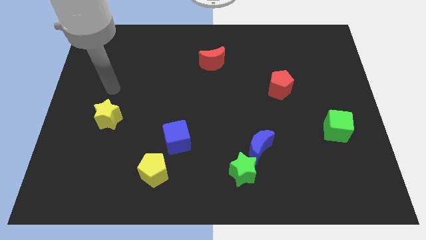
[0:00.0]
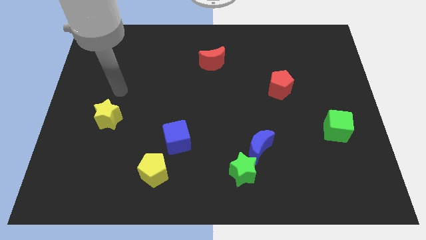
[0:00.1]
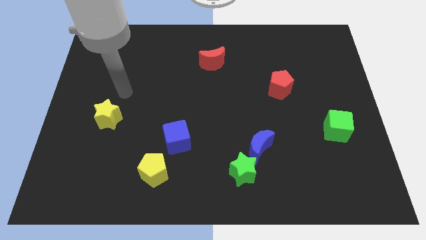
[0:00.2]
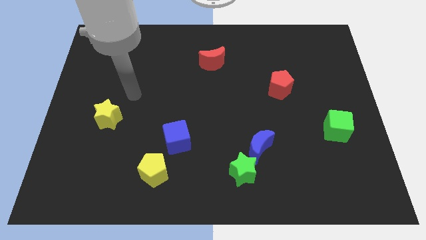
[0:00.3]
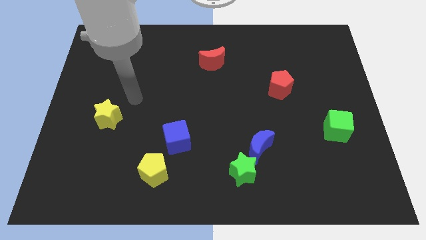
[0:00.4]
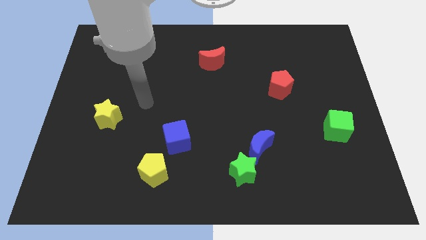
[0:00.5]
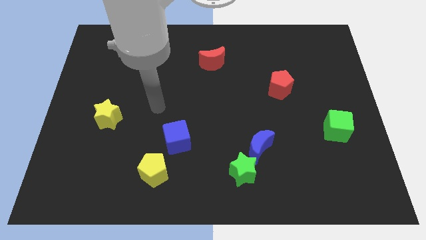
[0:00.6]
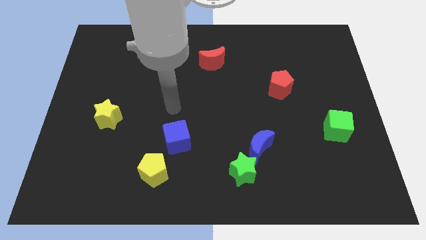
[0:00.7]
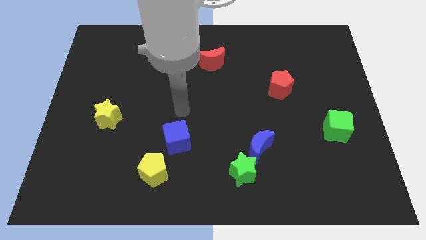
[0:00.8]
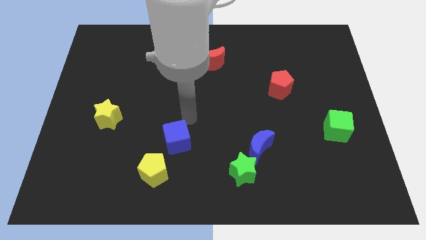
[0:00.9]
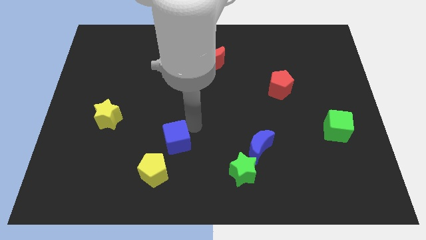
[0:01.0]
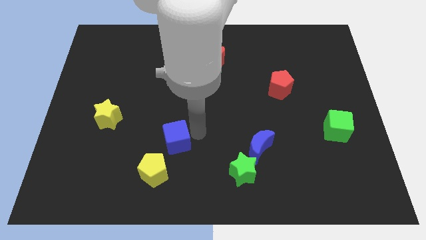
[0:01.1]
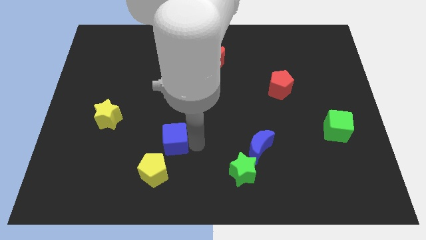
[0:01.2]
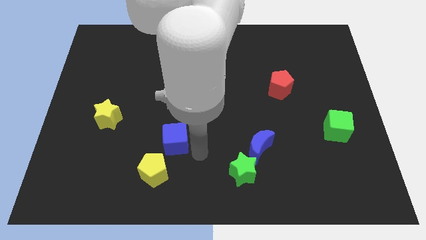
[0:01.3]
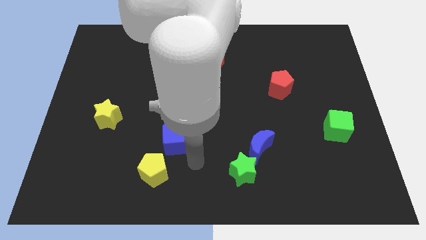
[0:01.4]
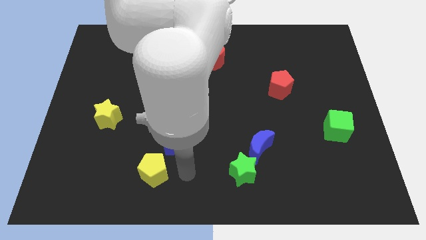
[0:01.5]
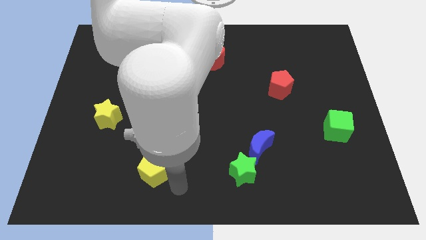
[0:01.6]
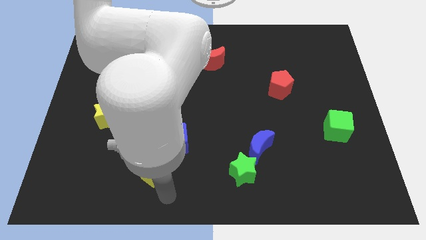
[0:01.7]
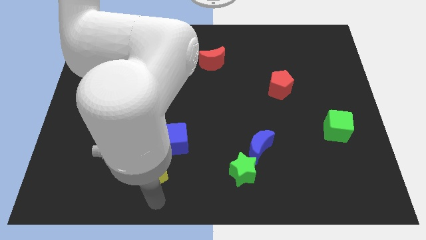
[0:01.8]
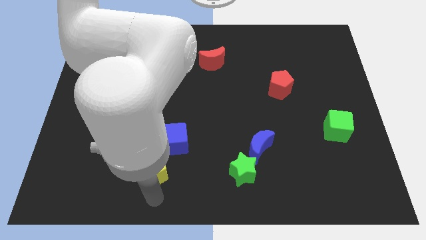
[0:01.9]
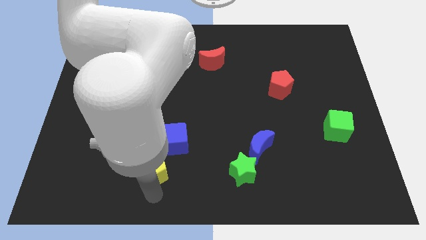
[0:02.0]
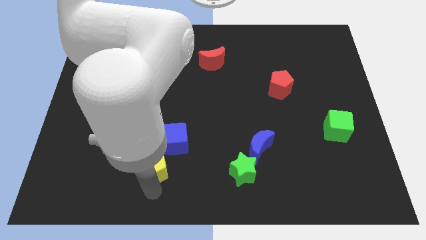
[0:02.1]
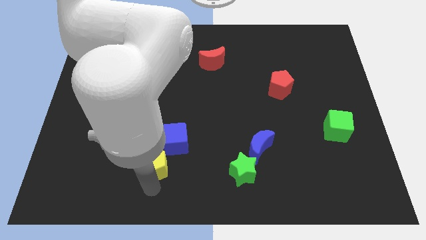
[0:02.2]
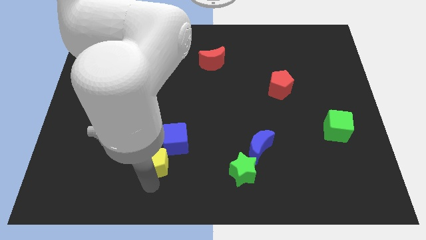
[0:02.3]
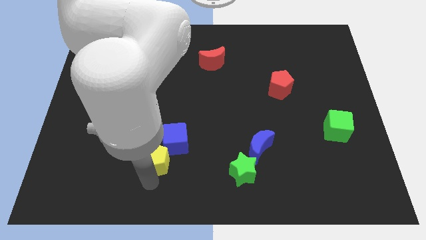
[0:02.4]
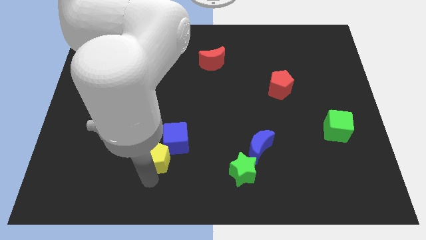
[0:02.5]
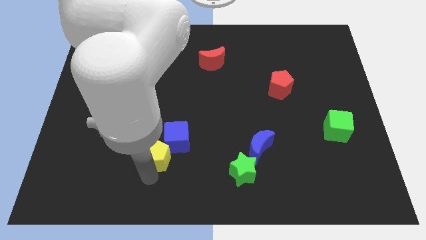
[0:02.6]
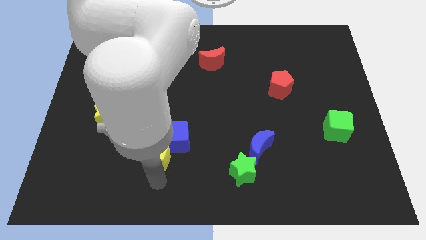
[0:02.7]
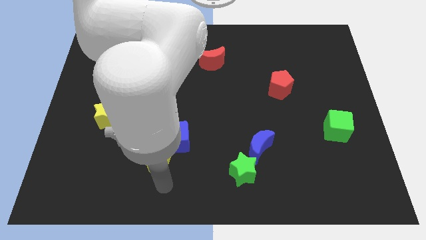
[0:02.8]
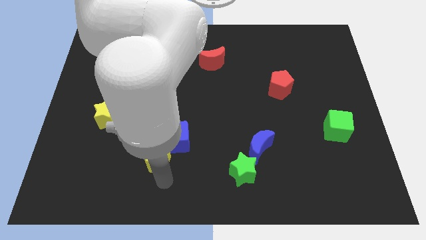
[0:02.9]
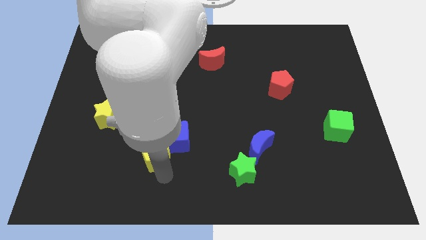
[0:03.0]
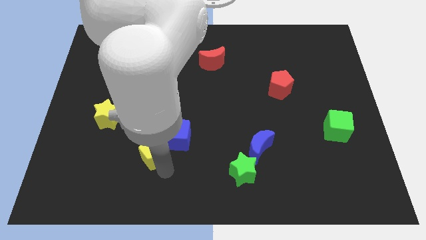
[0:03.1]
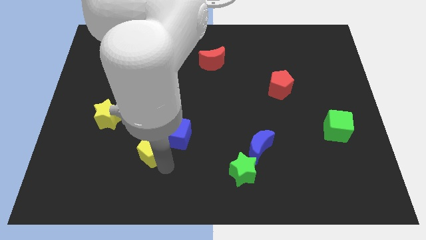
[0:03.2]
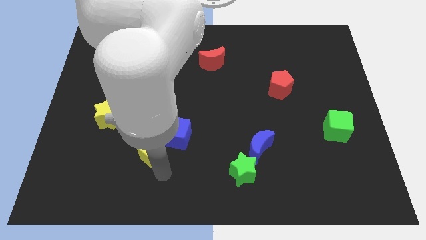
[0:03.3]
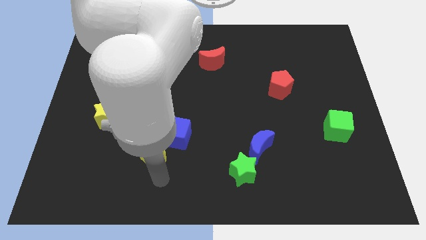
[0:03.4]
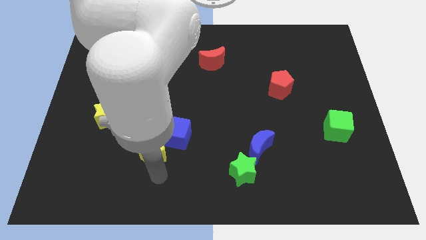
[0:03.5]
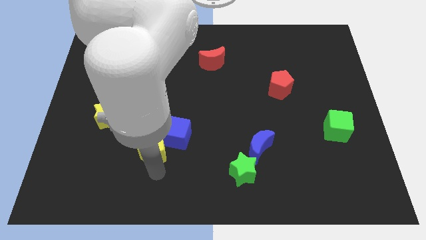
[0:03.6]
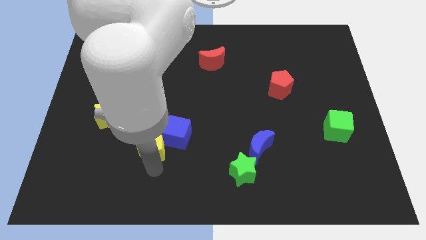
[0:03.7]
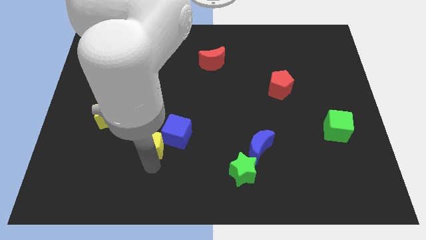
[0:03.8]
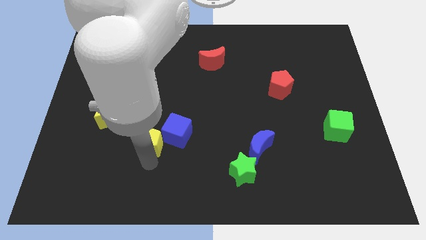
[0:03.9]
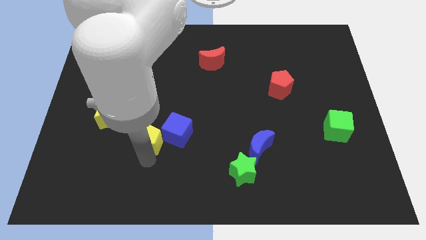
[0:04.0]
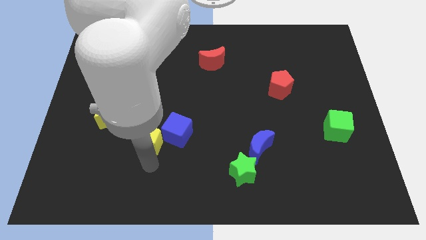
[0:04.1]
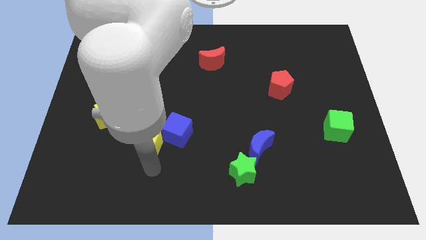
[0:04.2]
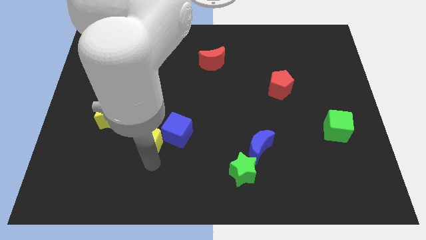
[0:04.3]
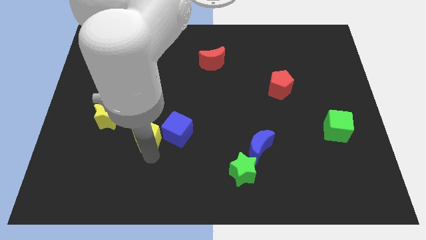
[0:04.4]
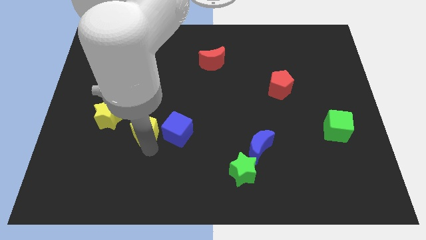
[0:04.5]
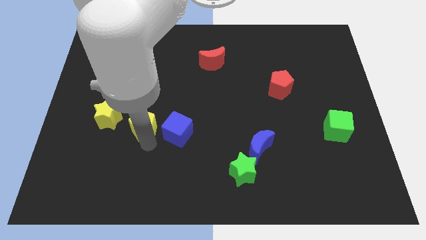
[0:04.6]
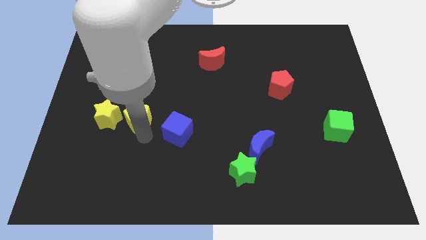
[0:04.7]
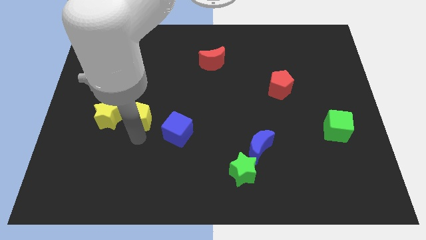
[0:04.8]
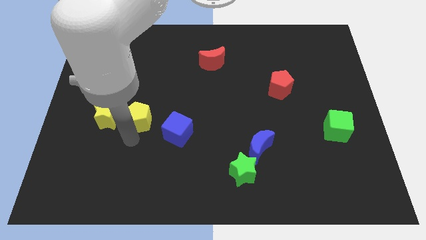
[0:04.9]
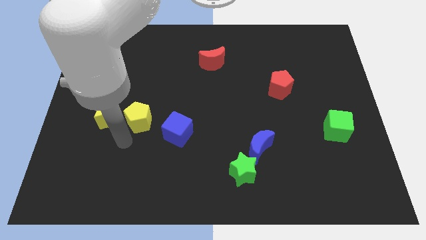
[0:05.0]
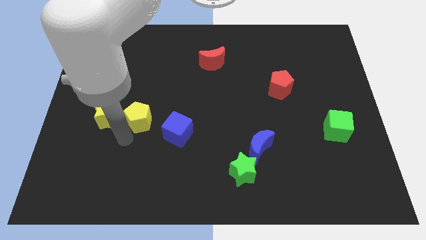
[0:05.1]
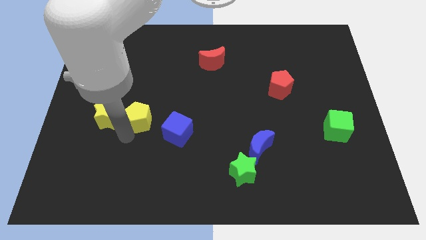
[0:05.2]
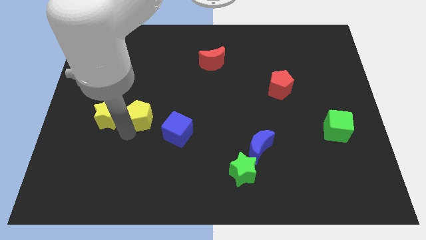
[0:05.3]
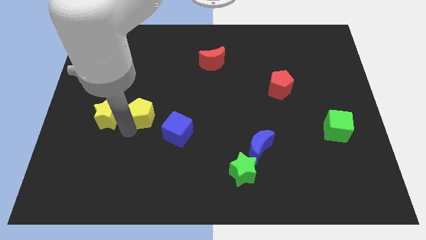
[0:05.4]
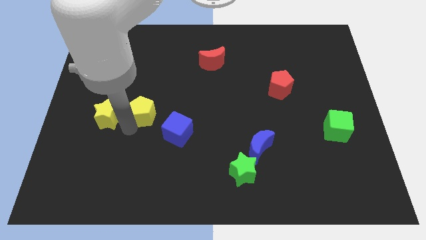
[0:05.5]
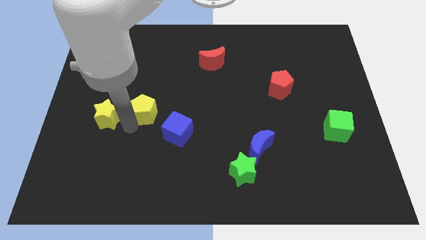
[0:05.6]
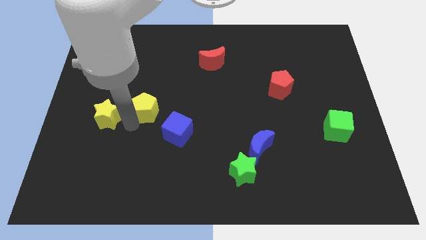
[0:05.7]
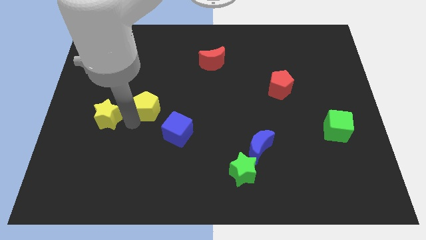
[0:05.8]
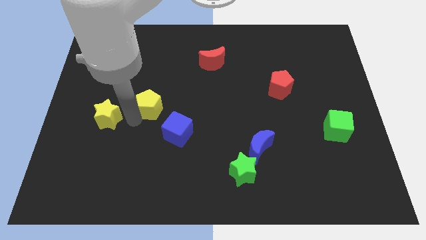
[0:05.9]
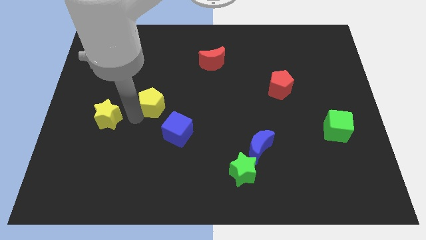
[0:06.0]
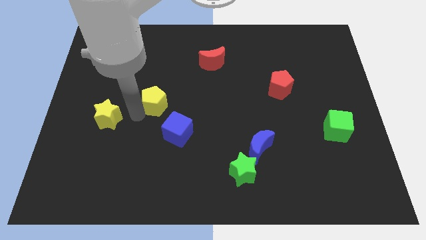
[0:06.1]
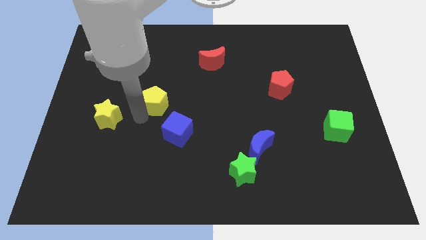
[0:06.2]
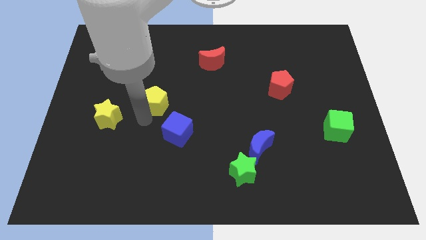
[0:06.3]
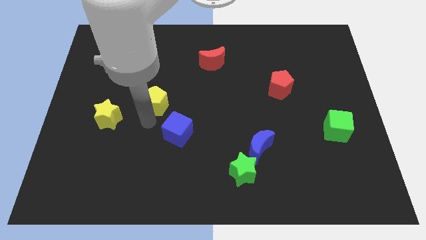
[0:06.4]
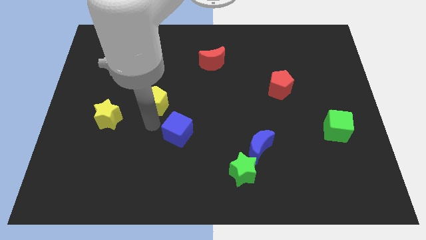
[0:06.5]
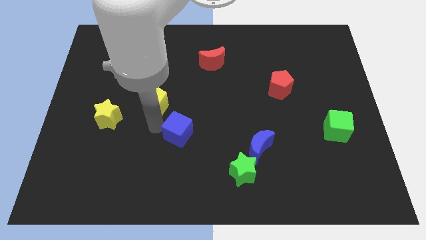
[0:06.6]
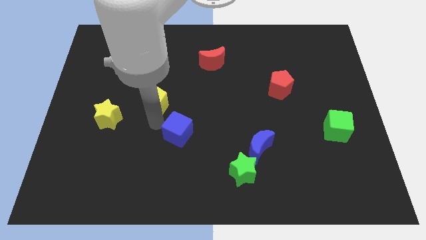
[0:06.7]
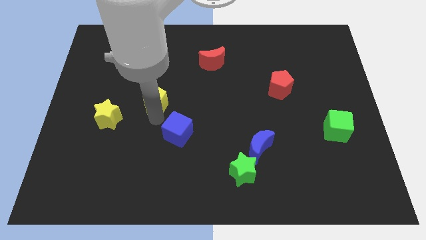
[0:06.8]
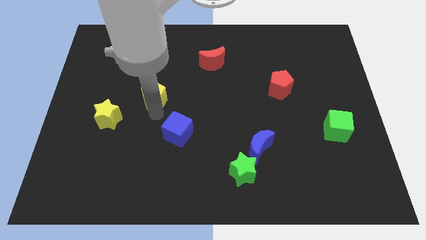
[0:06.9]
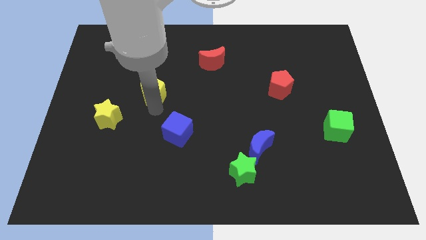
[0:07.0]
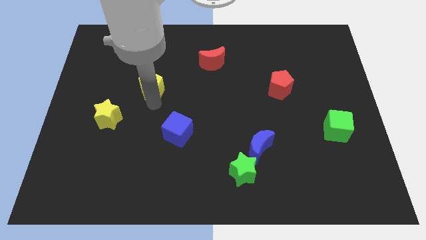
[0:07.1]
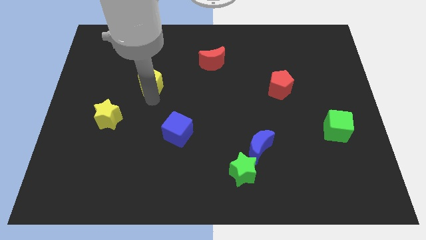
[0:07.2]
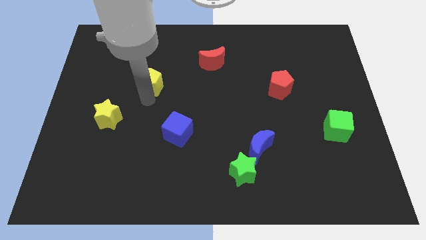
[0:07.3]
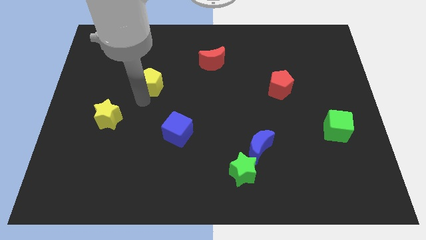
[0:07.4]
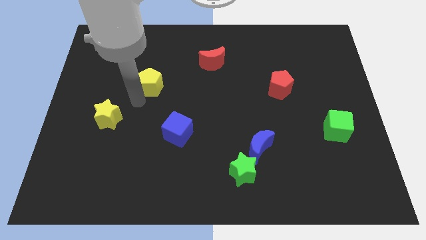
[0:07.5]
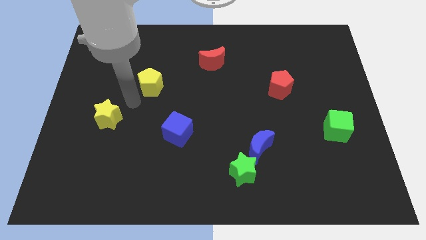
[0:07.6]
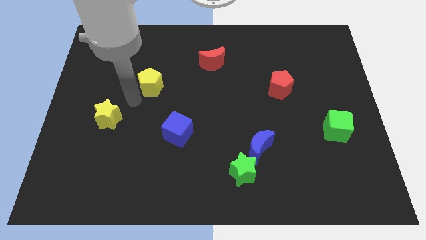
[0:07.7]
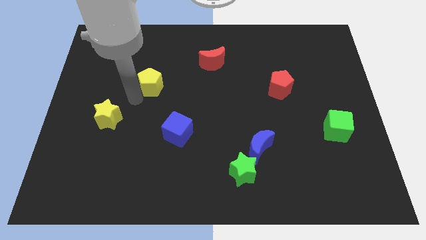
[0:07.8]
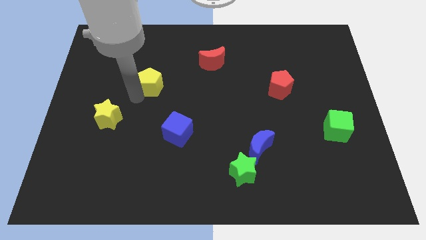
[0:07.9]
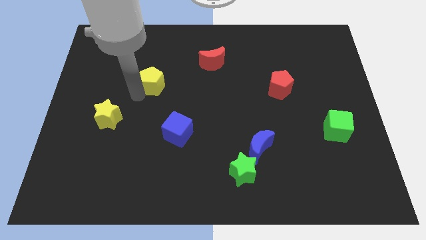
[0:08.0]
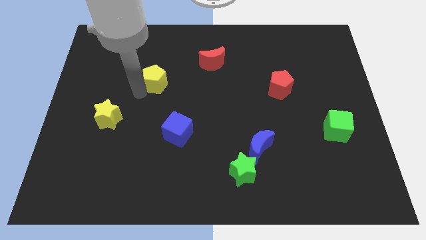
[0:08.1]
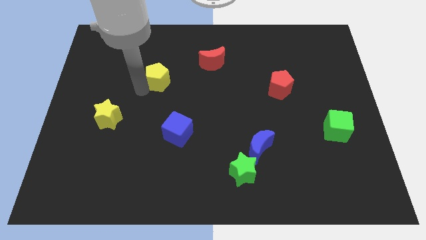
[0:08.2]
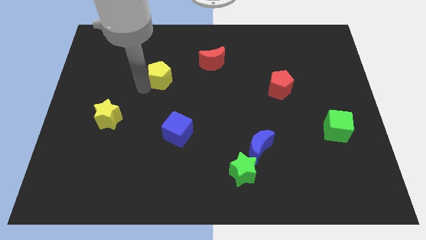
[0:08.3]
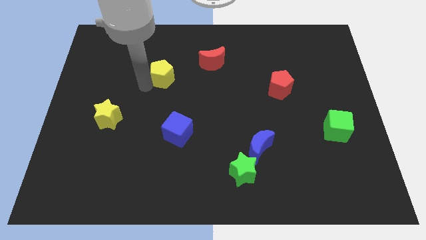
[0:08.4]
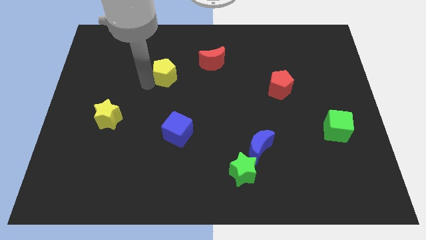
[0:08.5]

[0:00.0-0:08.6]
put the yellow pentagon left of the red moon
